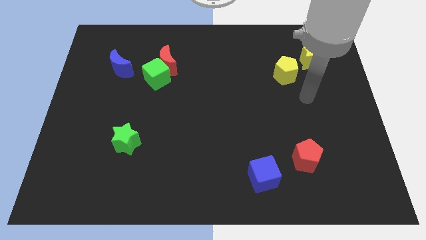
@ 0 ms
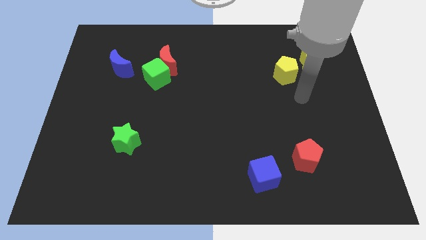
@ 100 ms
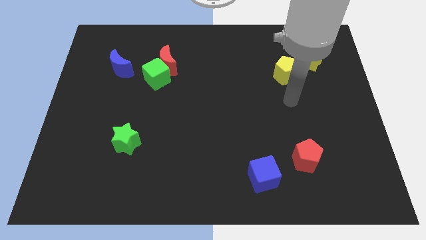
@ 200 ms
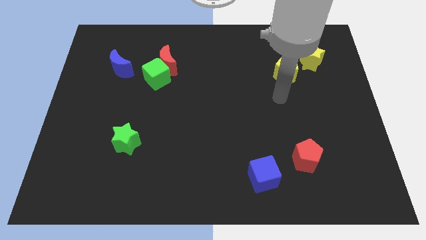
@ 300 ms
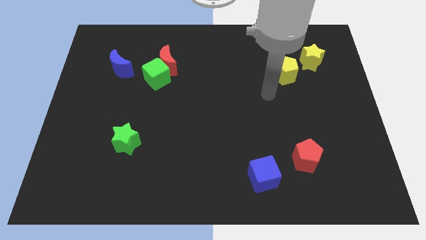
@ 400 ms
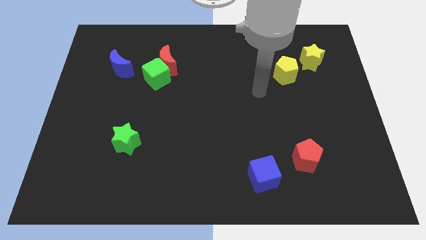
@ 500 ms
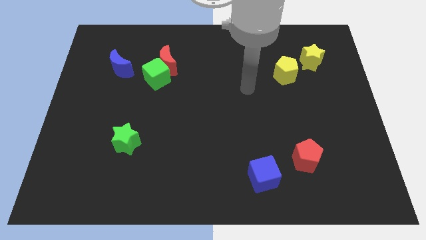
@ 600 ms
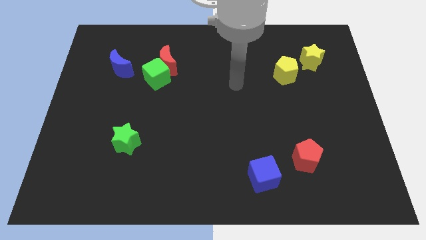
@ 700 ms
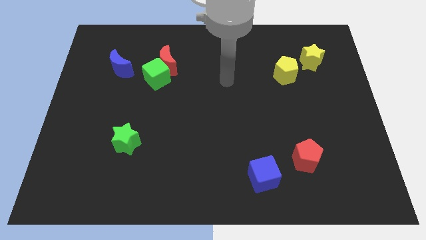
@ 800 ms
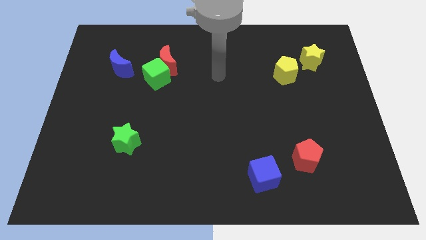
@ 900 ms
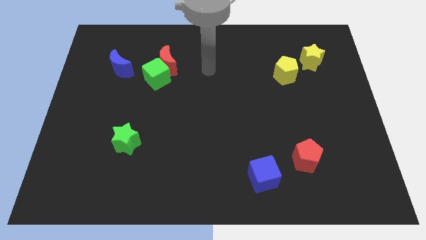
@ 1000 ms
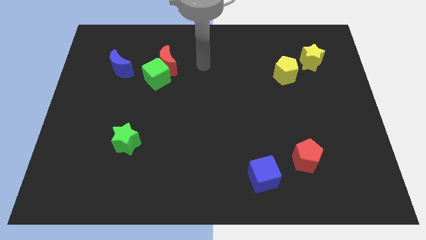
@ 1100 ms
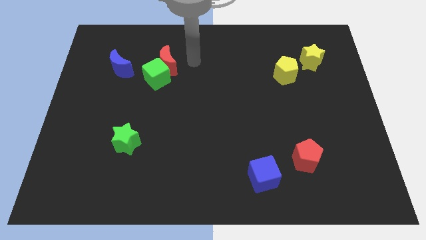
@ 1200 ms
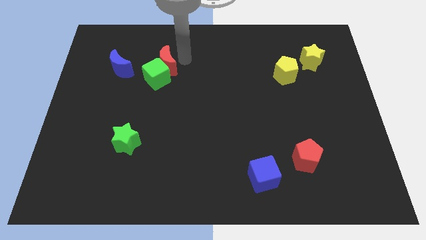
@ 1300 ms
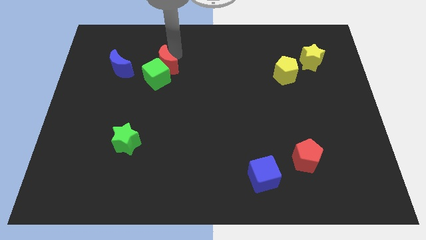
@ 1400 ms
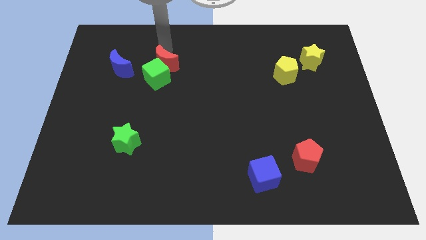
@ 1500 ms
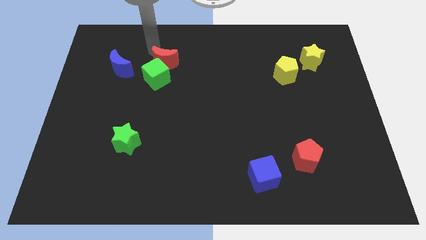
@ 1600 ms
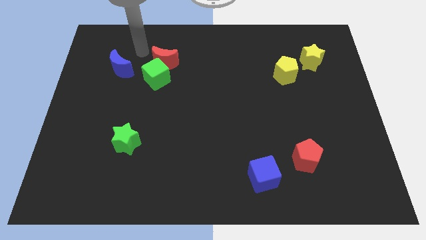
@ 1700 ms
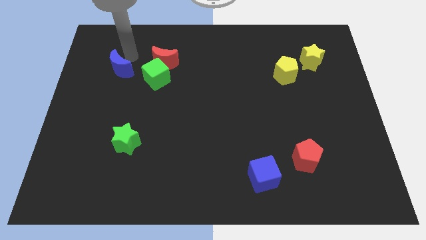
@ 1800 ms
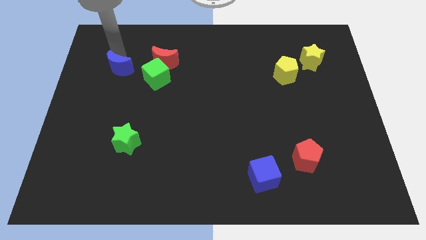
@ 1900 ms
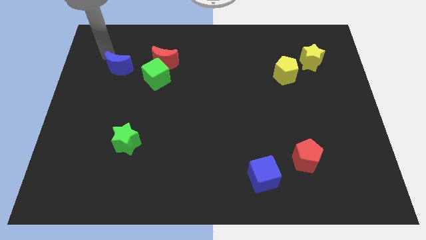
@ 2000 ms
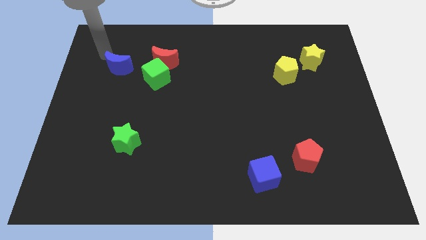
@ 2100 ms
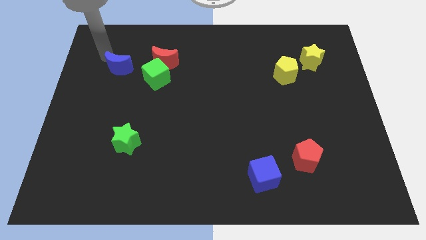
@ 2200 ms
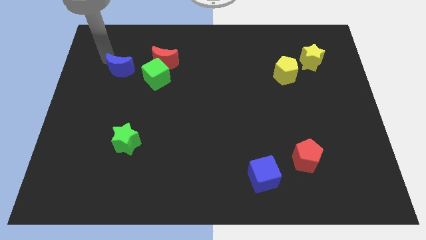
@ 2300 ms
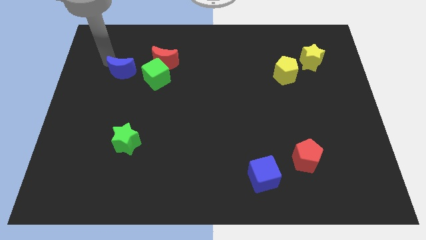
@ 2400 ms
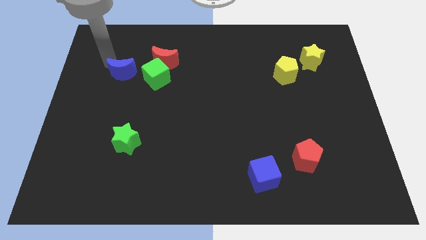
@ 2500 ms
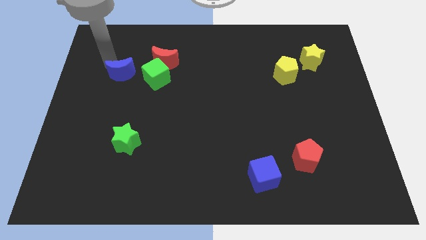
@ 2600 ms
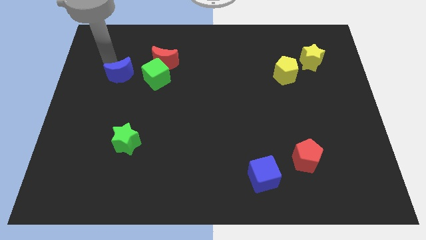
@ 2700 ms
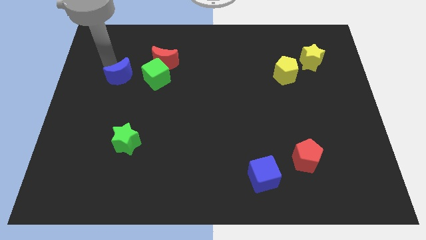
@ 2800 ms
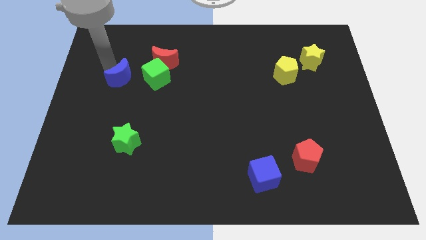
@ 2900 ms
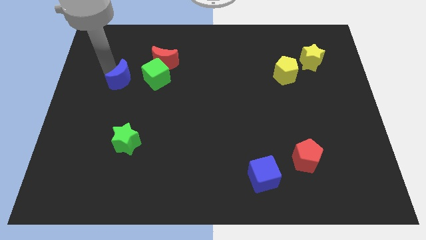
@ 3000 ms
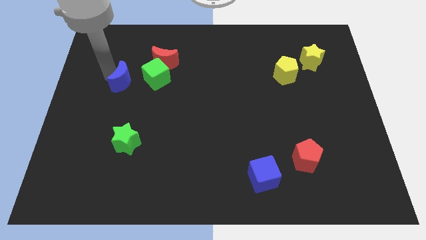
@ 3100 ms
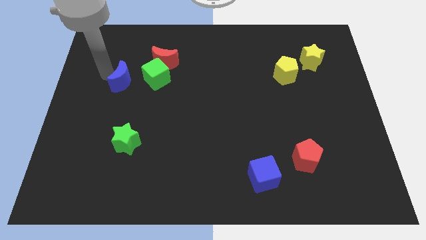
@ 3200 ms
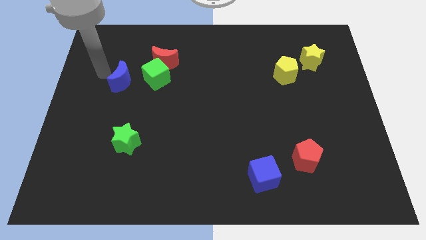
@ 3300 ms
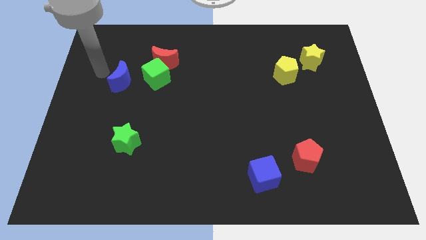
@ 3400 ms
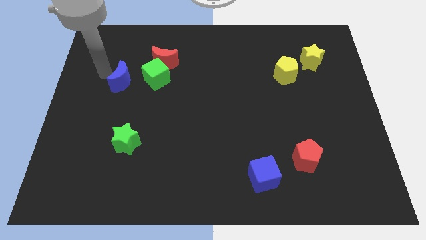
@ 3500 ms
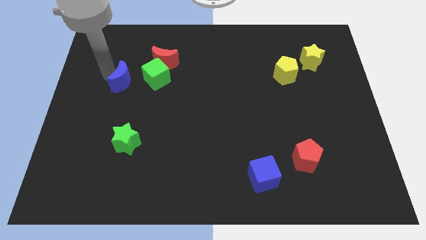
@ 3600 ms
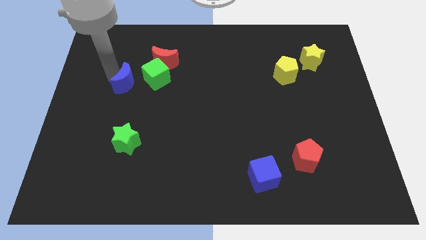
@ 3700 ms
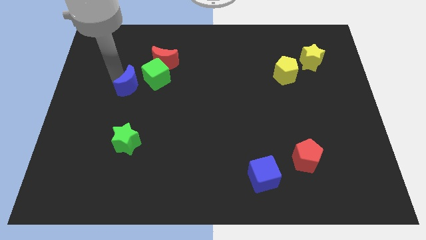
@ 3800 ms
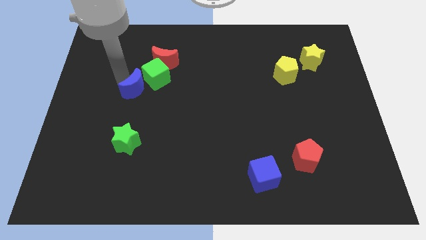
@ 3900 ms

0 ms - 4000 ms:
move the blue moon diagonally downwards and right somewhat

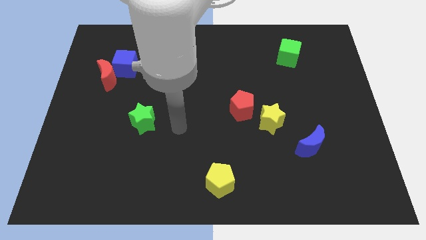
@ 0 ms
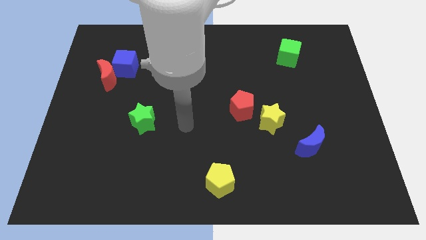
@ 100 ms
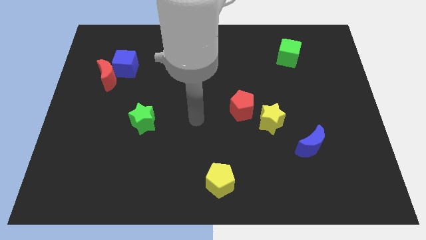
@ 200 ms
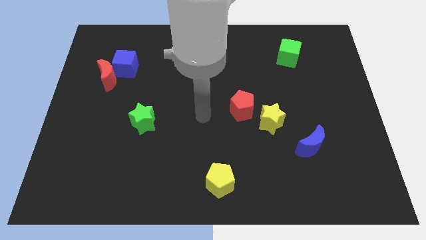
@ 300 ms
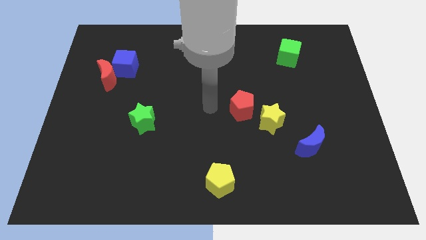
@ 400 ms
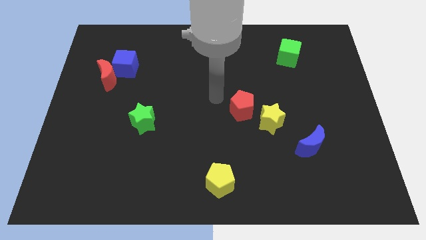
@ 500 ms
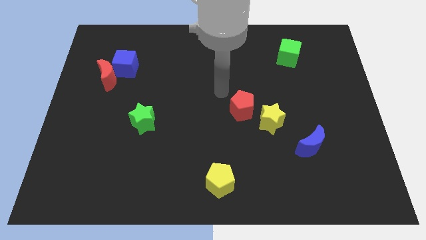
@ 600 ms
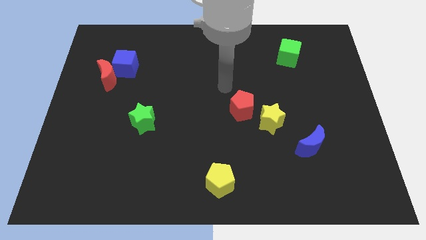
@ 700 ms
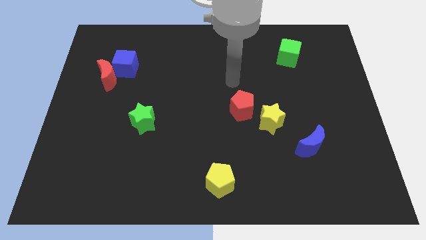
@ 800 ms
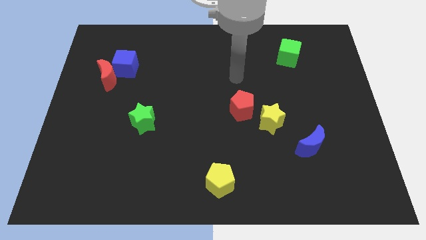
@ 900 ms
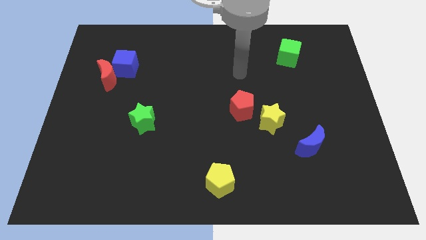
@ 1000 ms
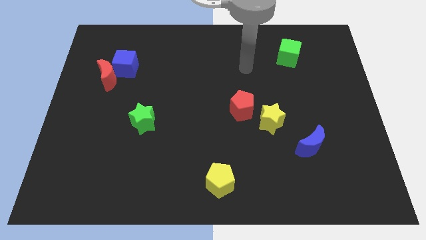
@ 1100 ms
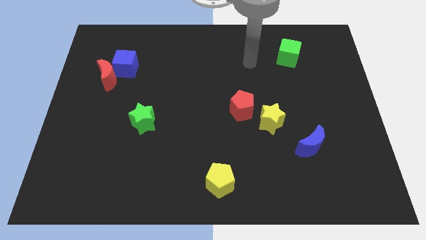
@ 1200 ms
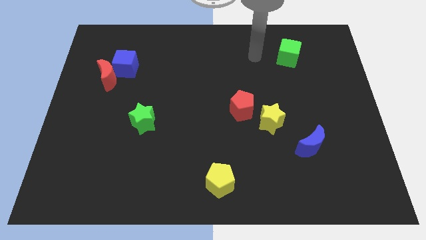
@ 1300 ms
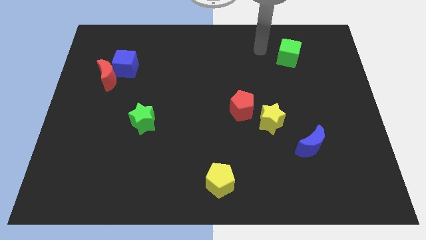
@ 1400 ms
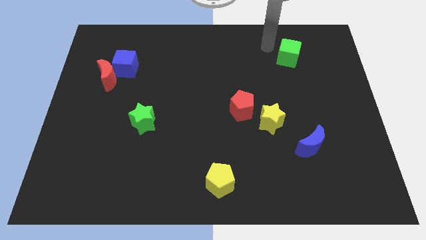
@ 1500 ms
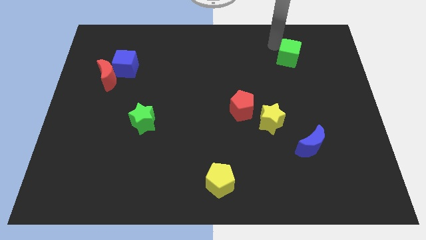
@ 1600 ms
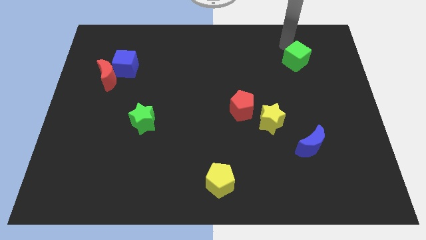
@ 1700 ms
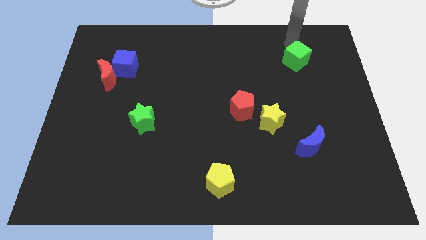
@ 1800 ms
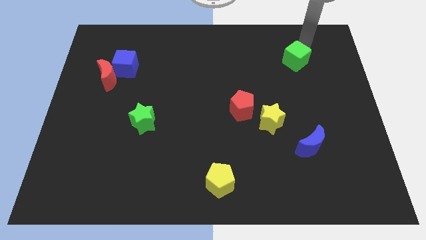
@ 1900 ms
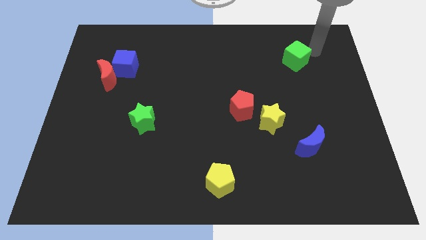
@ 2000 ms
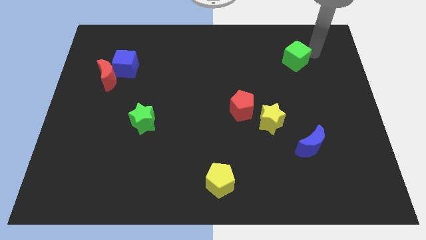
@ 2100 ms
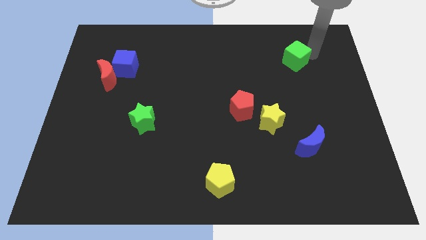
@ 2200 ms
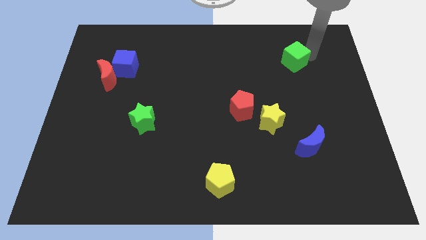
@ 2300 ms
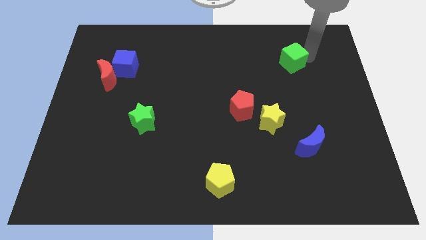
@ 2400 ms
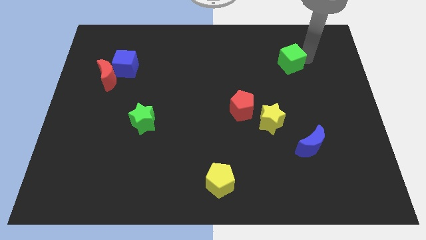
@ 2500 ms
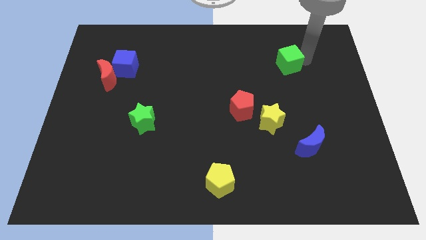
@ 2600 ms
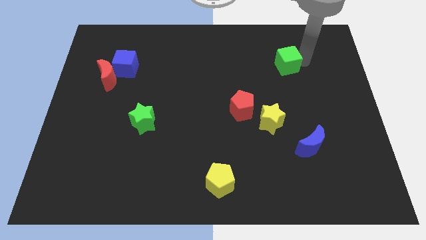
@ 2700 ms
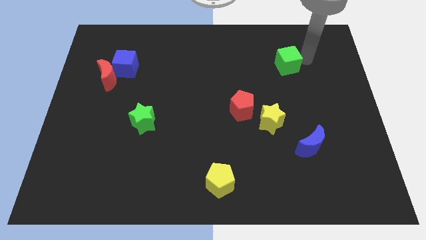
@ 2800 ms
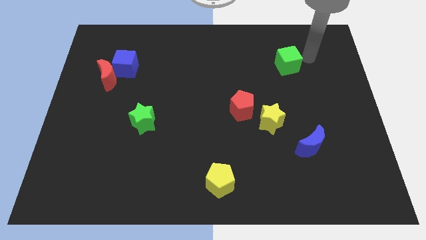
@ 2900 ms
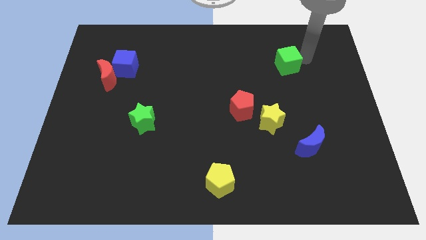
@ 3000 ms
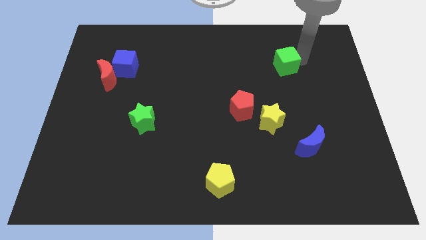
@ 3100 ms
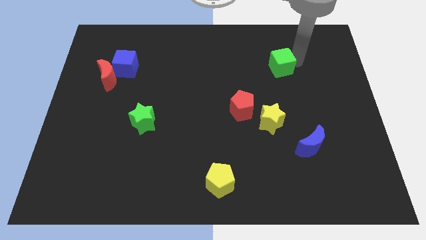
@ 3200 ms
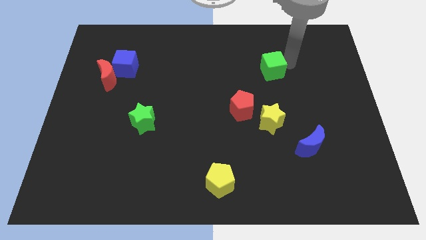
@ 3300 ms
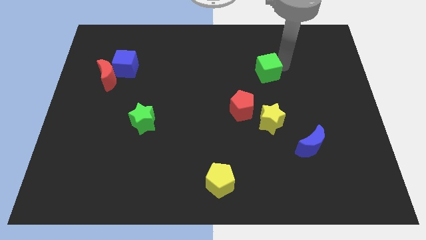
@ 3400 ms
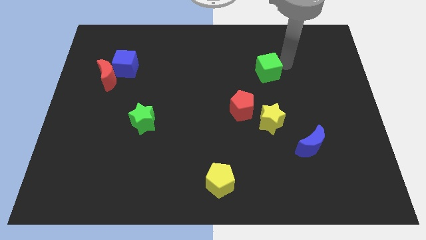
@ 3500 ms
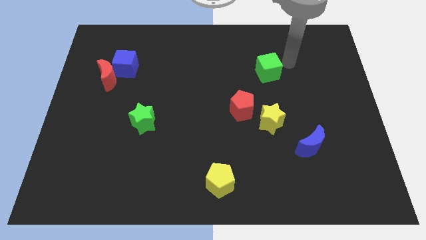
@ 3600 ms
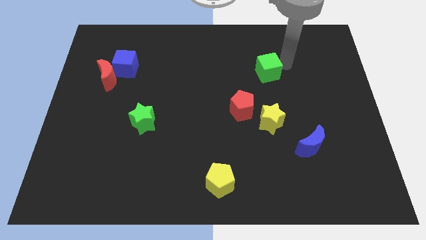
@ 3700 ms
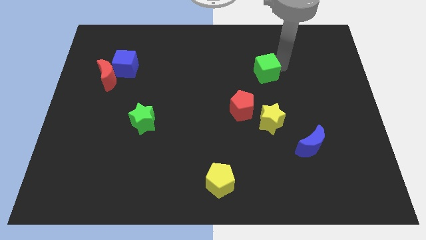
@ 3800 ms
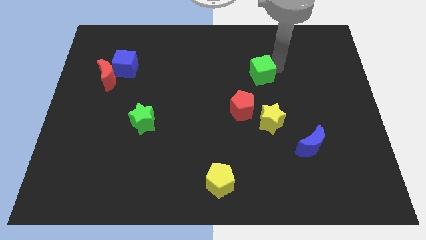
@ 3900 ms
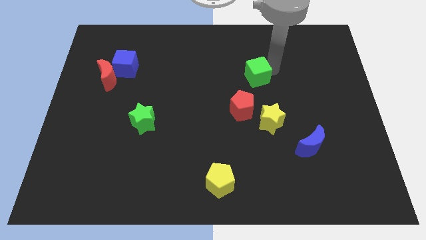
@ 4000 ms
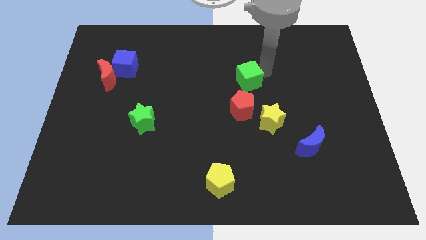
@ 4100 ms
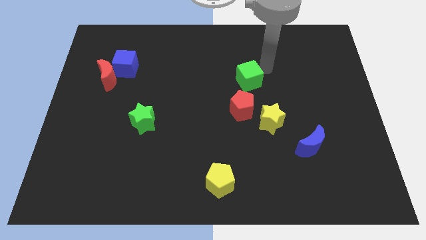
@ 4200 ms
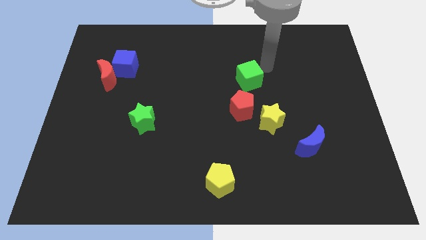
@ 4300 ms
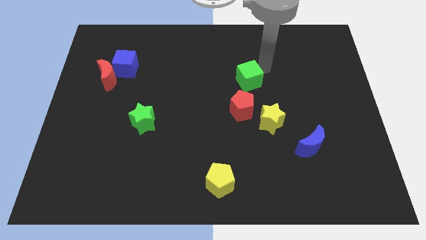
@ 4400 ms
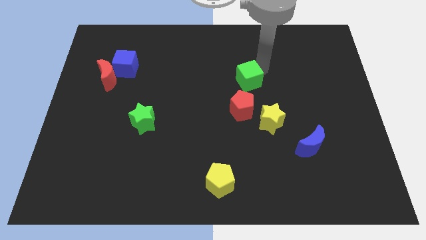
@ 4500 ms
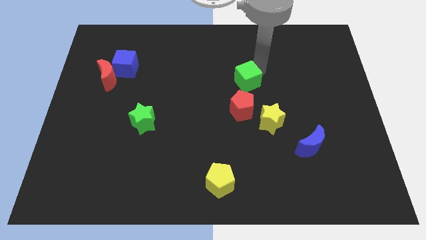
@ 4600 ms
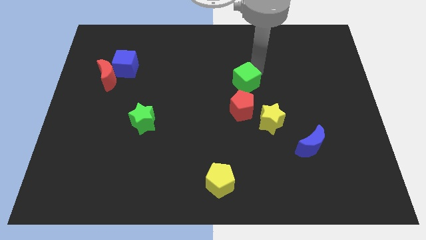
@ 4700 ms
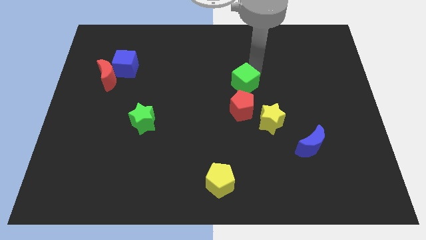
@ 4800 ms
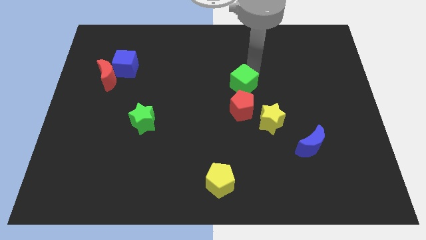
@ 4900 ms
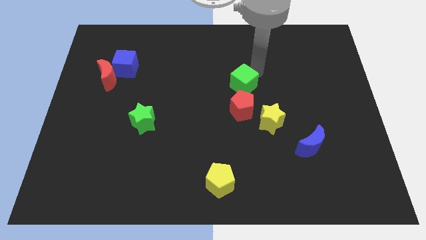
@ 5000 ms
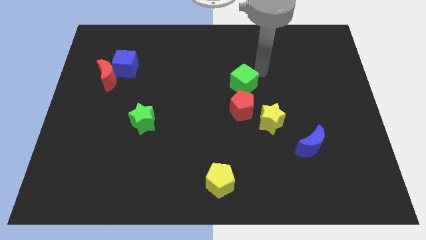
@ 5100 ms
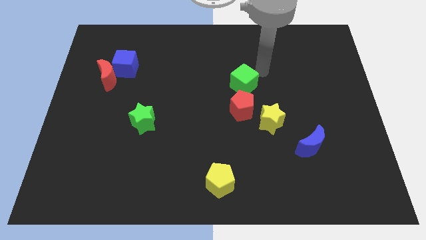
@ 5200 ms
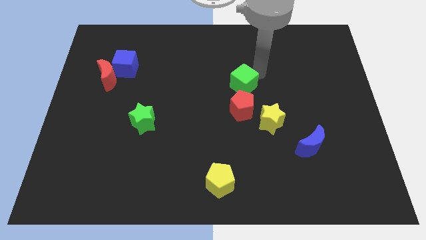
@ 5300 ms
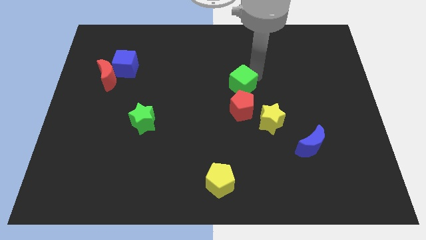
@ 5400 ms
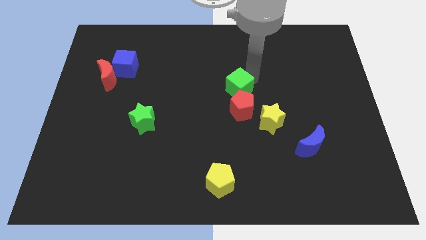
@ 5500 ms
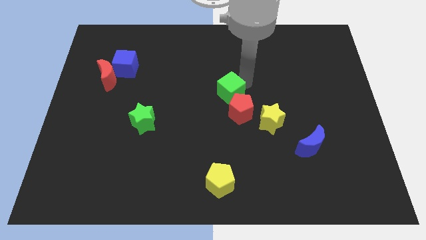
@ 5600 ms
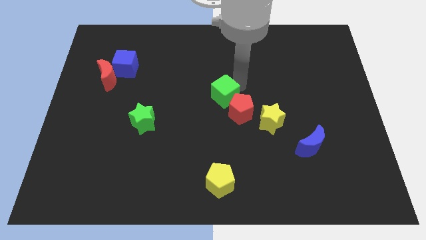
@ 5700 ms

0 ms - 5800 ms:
move the green cube diagonally downwards and left
